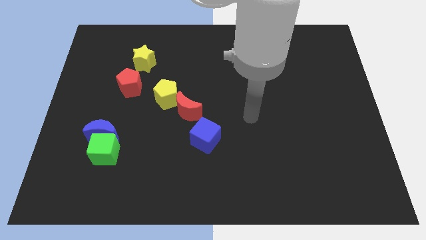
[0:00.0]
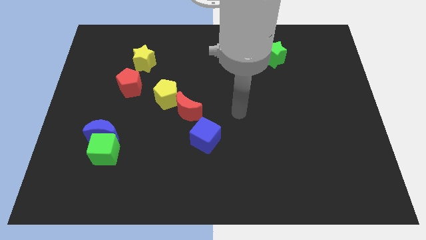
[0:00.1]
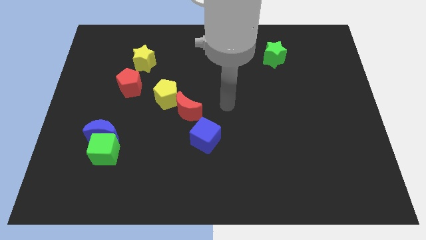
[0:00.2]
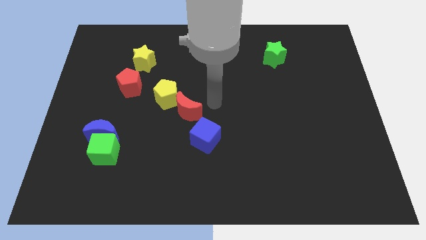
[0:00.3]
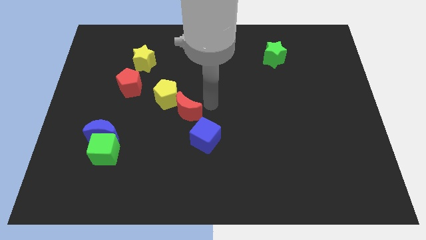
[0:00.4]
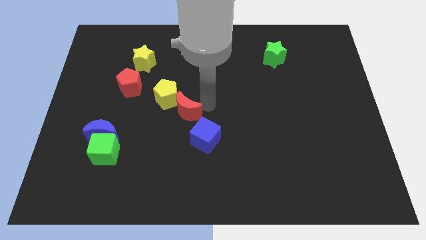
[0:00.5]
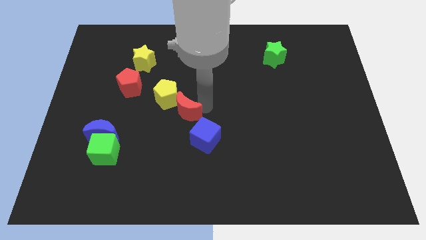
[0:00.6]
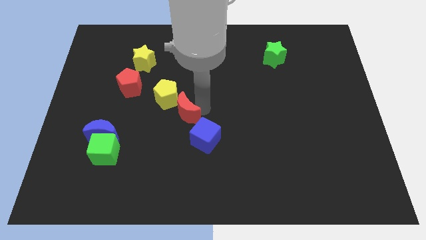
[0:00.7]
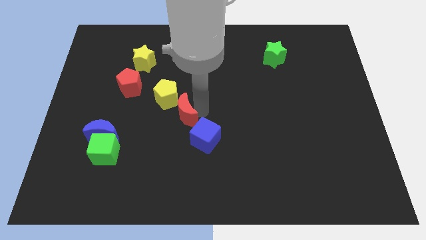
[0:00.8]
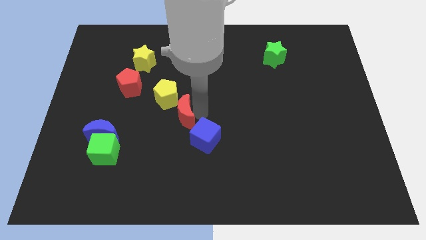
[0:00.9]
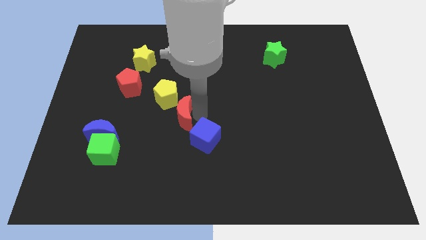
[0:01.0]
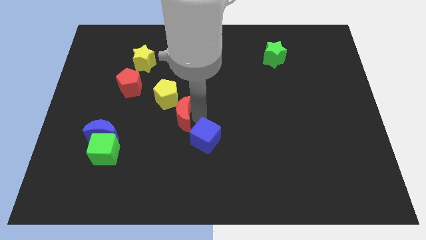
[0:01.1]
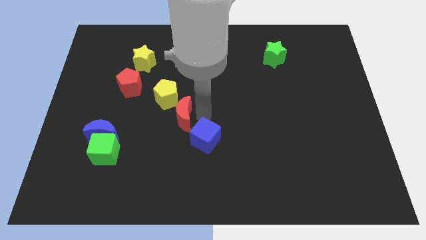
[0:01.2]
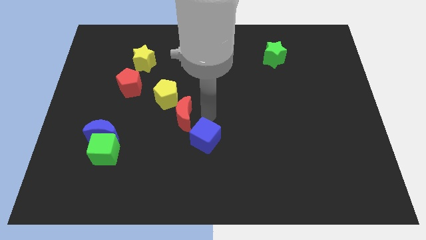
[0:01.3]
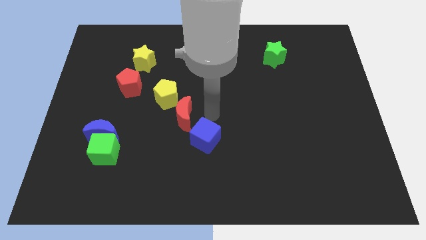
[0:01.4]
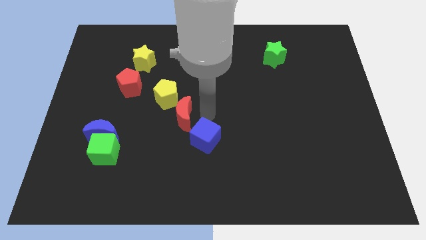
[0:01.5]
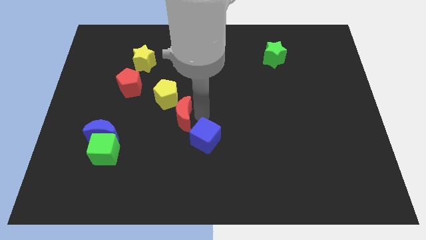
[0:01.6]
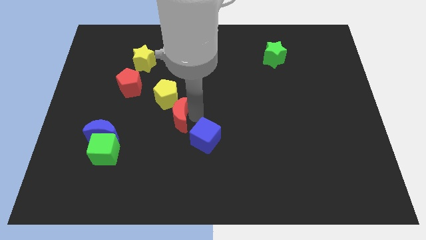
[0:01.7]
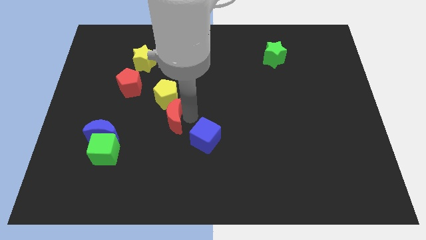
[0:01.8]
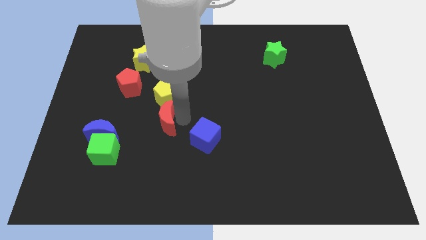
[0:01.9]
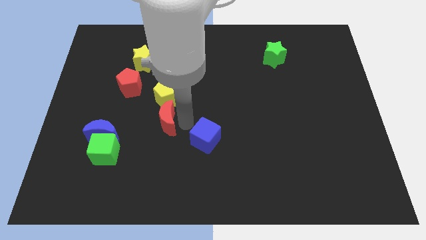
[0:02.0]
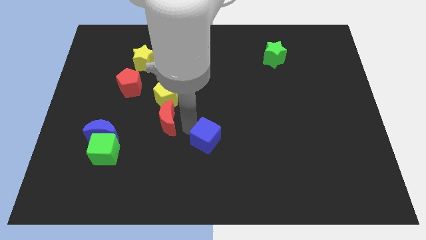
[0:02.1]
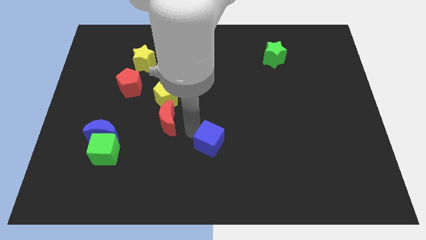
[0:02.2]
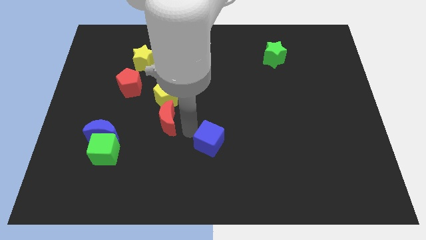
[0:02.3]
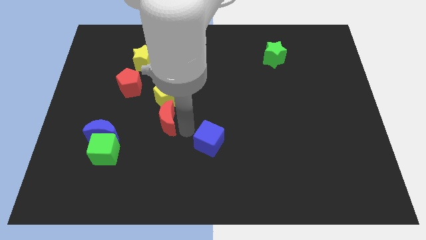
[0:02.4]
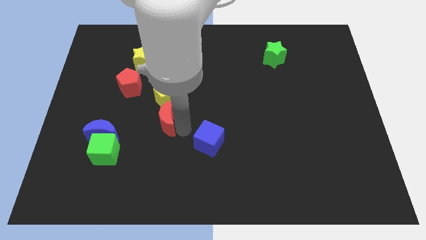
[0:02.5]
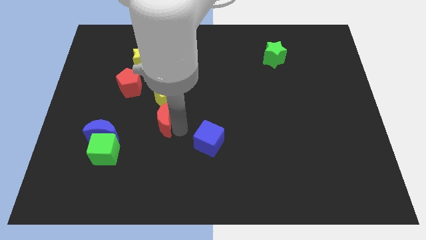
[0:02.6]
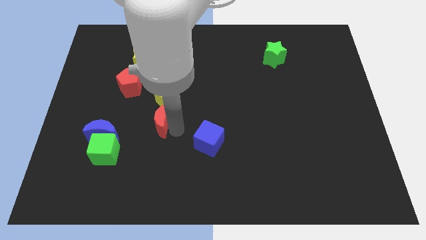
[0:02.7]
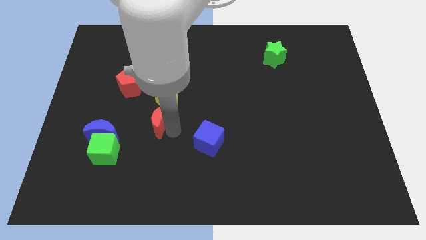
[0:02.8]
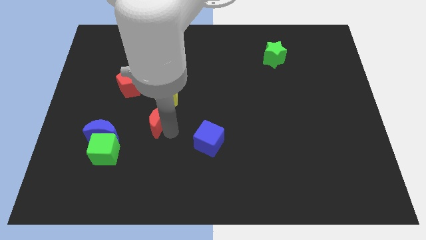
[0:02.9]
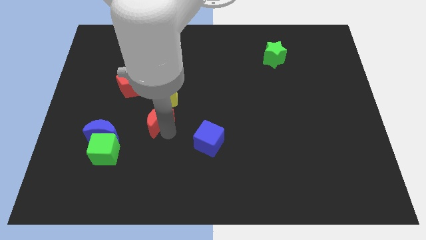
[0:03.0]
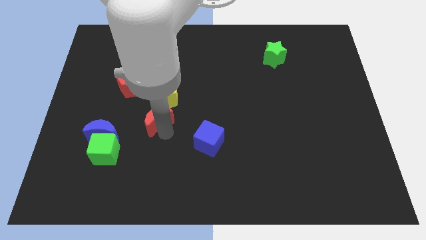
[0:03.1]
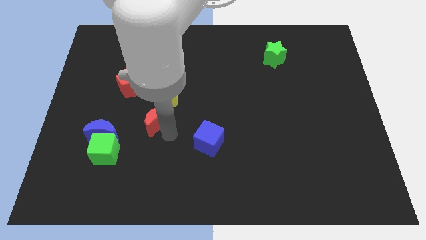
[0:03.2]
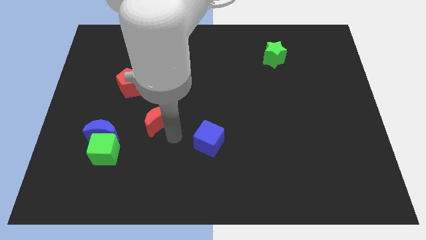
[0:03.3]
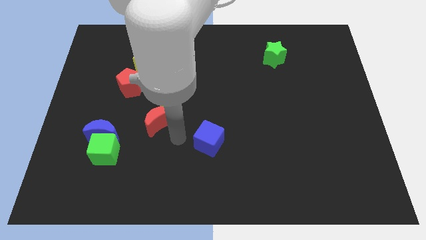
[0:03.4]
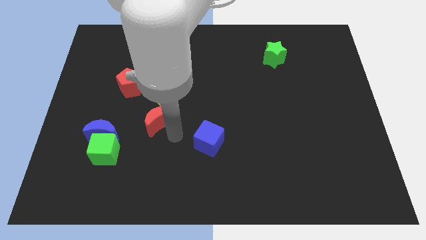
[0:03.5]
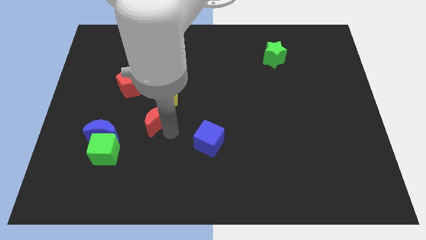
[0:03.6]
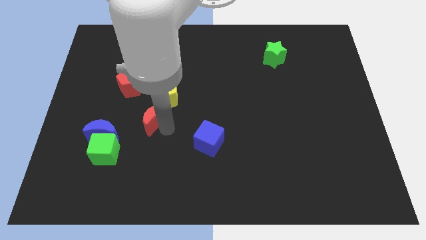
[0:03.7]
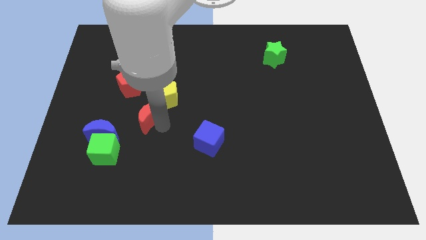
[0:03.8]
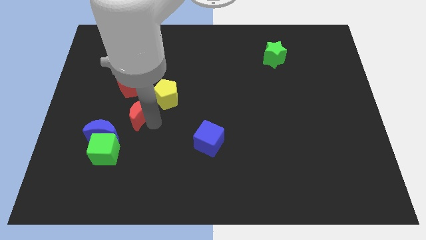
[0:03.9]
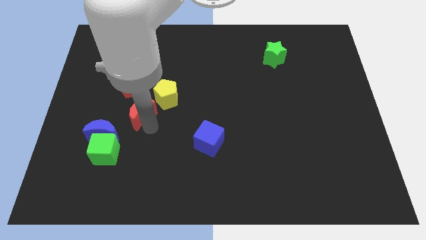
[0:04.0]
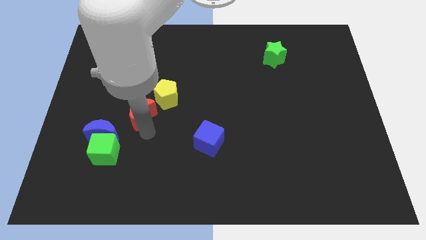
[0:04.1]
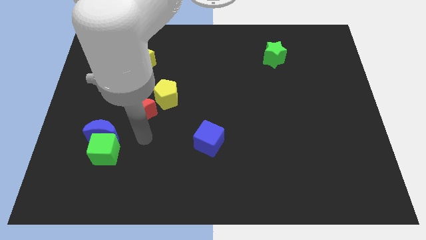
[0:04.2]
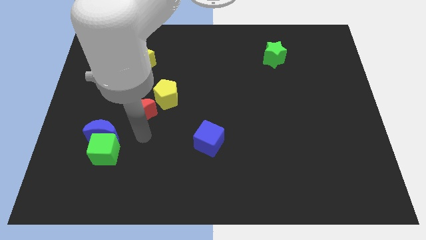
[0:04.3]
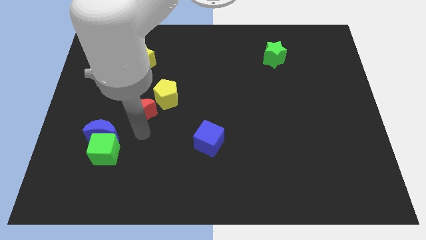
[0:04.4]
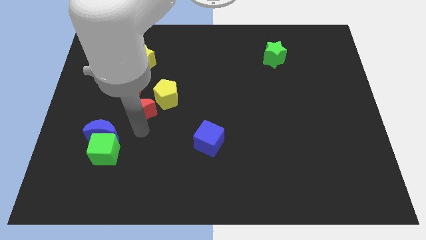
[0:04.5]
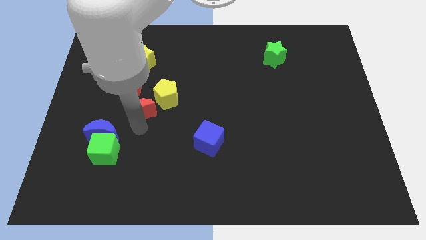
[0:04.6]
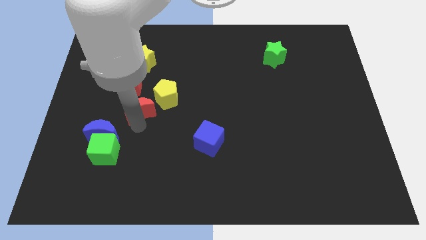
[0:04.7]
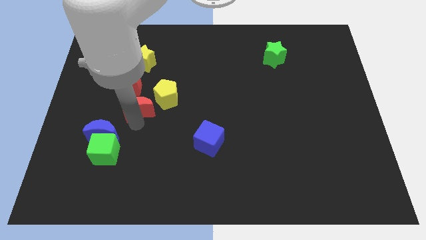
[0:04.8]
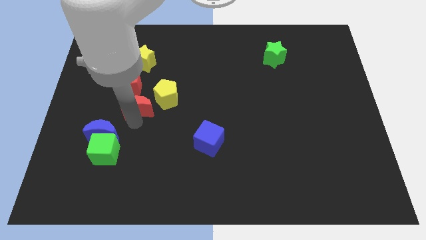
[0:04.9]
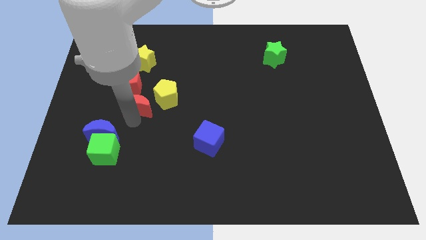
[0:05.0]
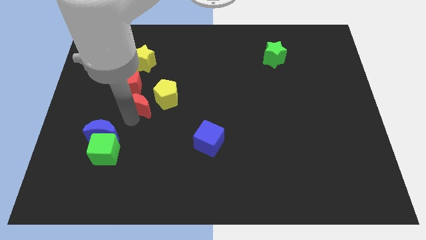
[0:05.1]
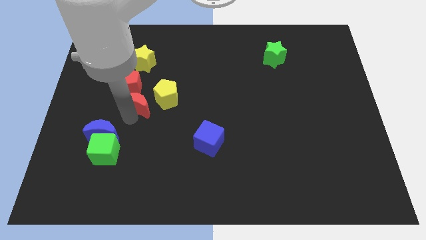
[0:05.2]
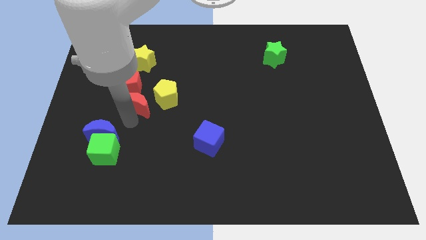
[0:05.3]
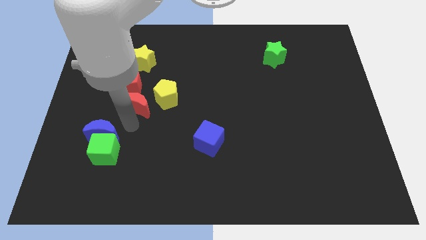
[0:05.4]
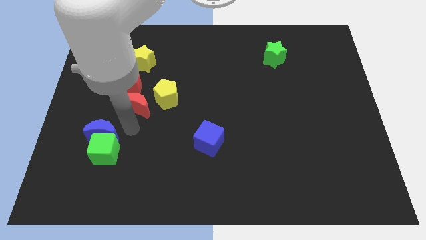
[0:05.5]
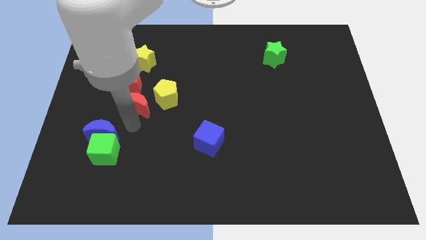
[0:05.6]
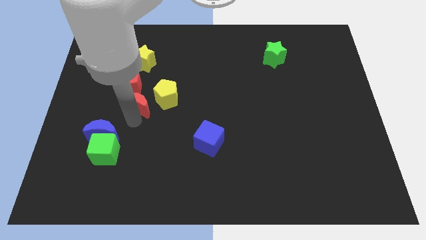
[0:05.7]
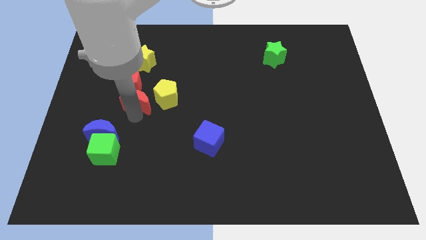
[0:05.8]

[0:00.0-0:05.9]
put the red moon towards the red pentagon

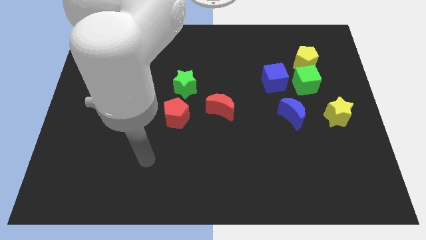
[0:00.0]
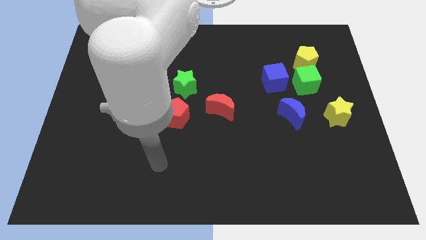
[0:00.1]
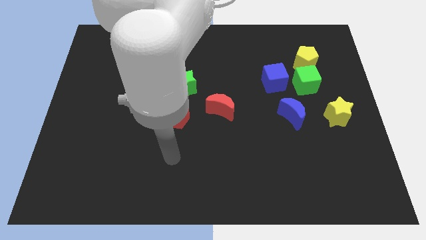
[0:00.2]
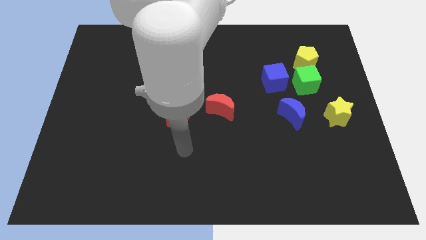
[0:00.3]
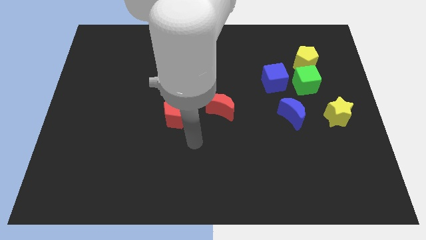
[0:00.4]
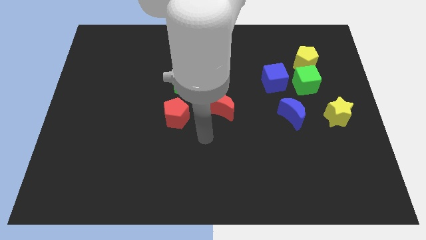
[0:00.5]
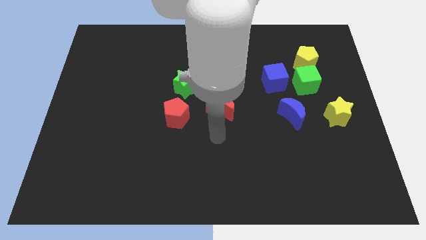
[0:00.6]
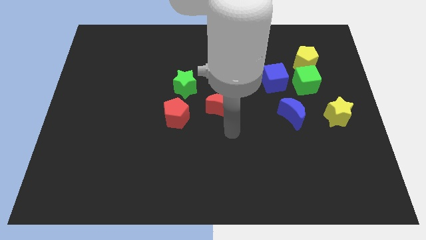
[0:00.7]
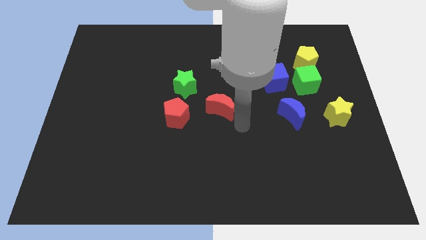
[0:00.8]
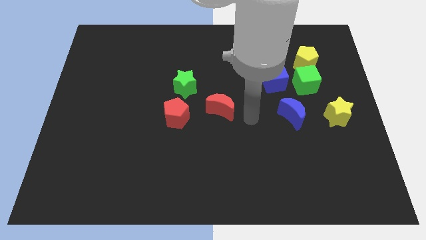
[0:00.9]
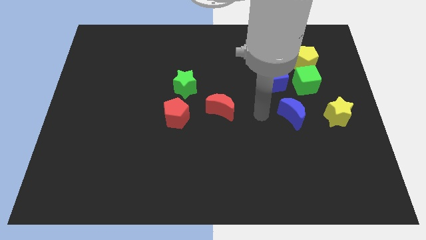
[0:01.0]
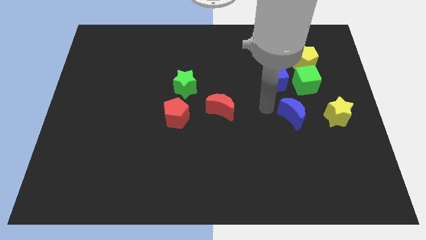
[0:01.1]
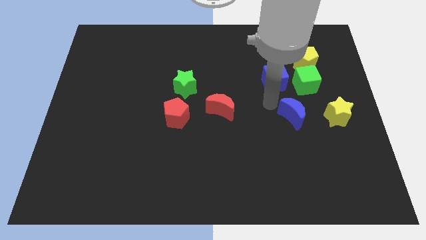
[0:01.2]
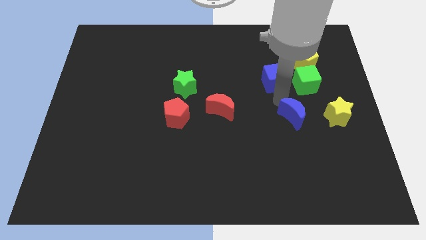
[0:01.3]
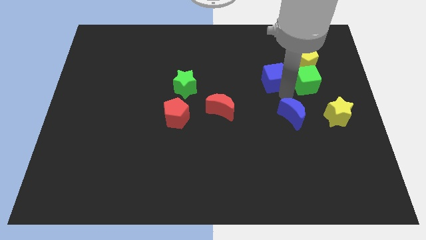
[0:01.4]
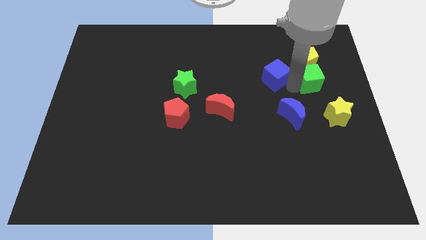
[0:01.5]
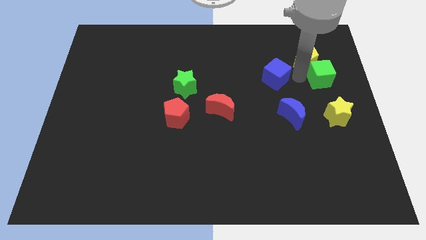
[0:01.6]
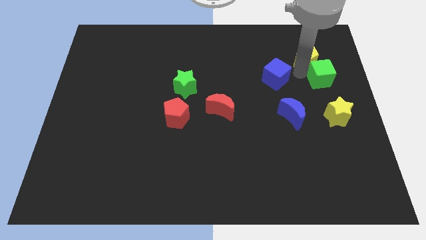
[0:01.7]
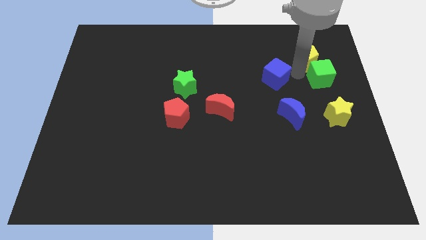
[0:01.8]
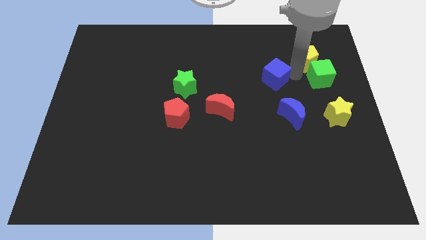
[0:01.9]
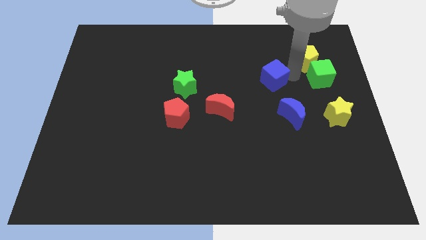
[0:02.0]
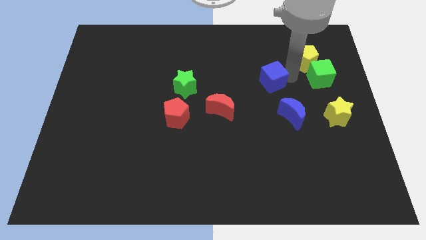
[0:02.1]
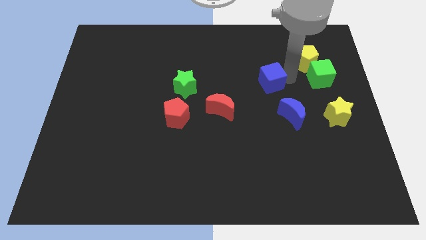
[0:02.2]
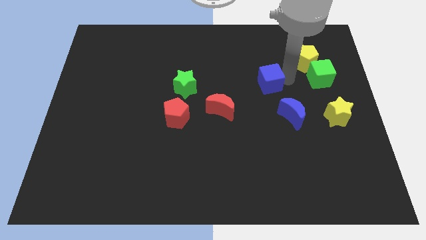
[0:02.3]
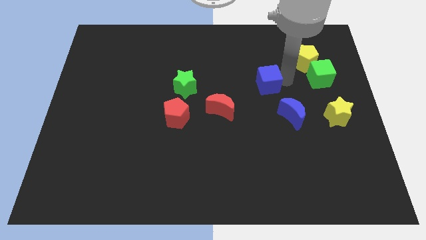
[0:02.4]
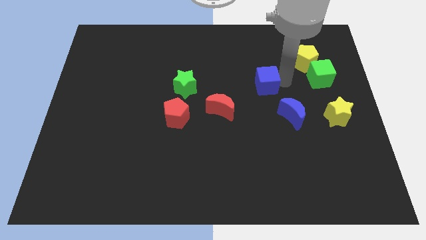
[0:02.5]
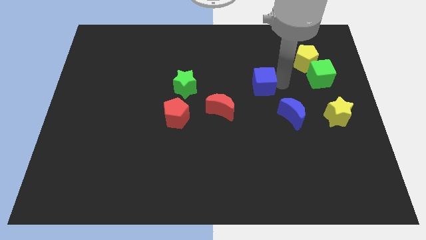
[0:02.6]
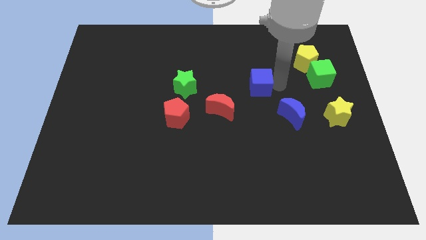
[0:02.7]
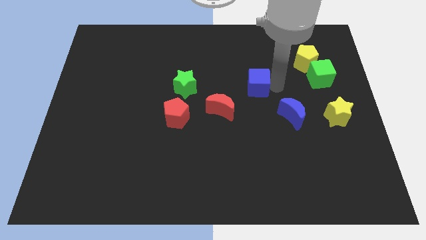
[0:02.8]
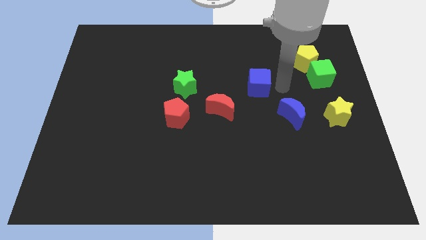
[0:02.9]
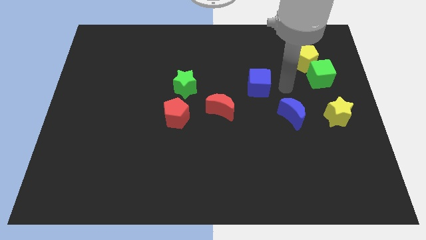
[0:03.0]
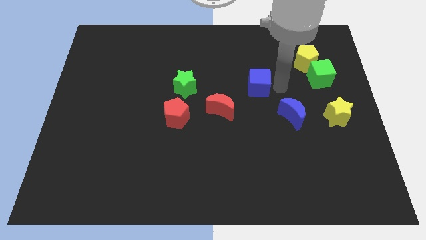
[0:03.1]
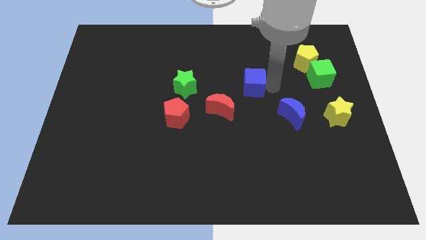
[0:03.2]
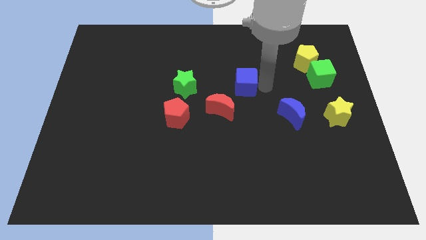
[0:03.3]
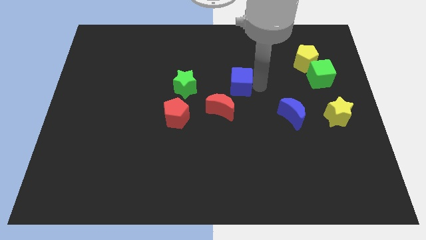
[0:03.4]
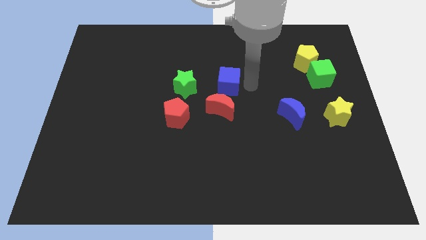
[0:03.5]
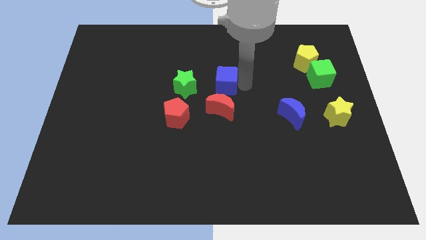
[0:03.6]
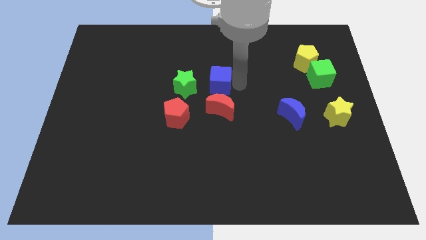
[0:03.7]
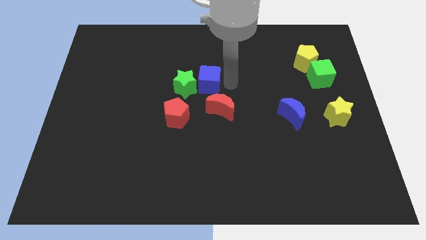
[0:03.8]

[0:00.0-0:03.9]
put the blue cube to the green star
